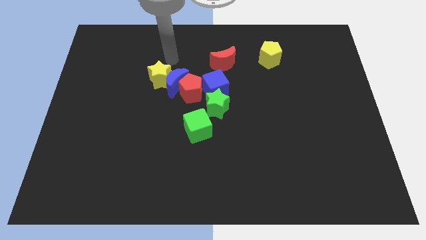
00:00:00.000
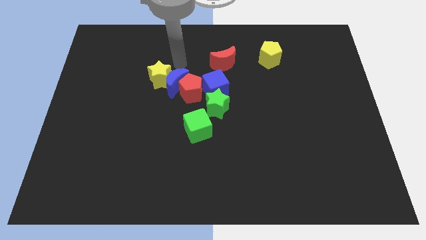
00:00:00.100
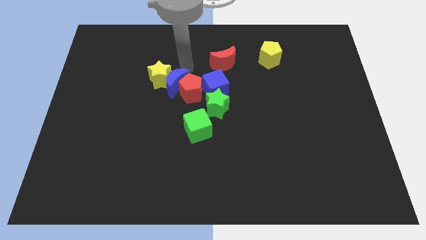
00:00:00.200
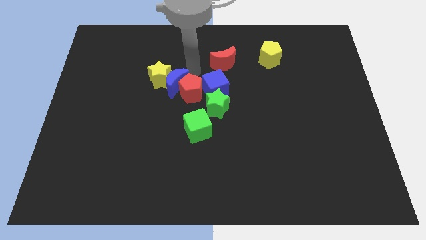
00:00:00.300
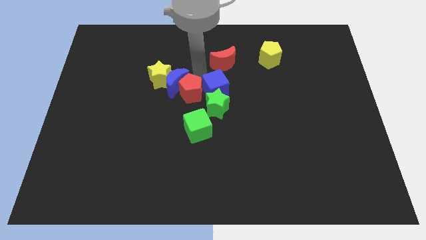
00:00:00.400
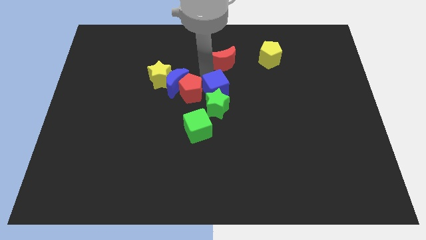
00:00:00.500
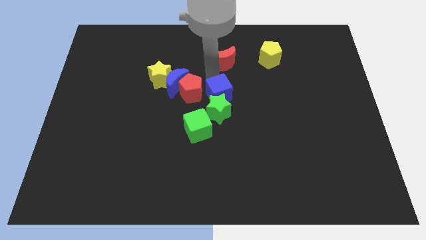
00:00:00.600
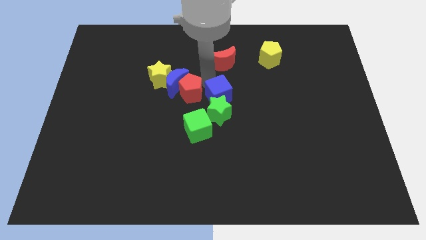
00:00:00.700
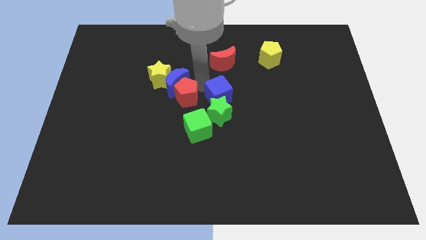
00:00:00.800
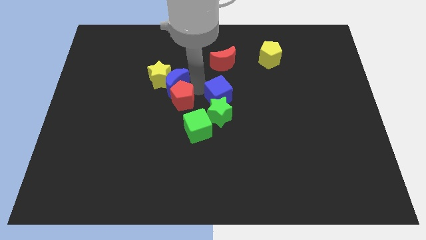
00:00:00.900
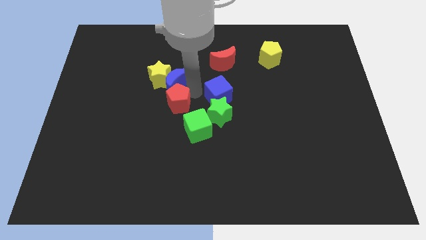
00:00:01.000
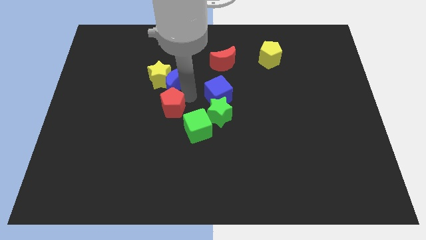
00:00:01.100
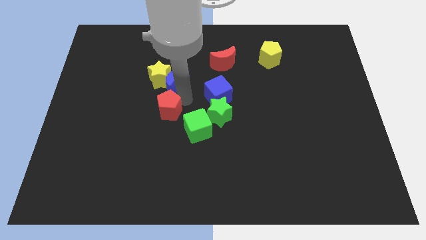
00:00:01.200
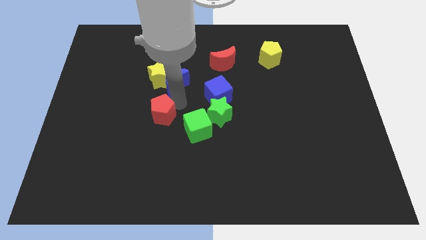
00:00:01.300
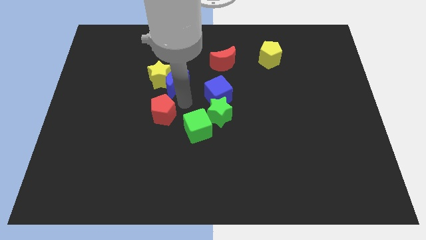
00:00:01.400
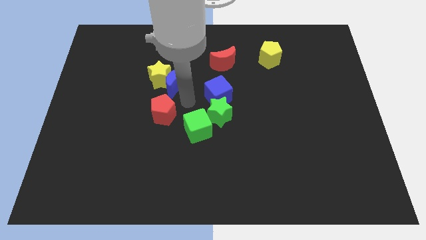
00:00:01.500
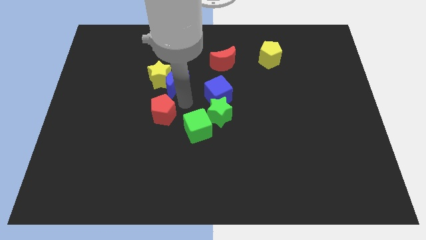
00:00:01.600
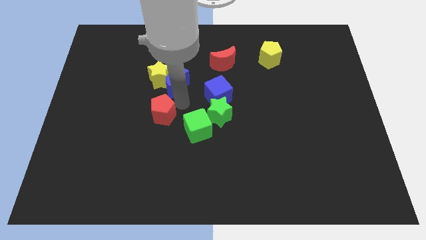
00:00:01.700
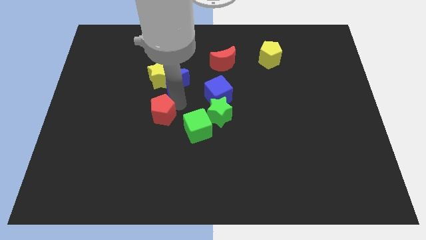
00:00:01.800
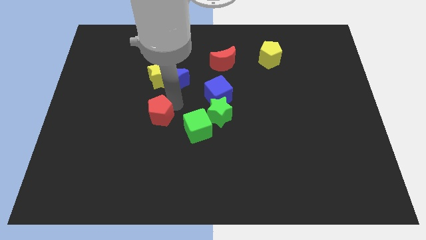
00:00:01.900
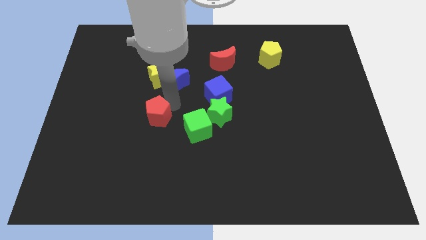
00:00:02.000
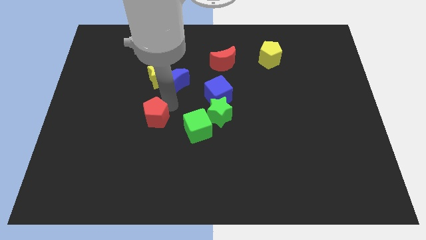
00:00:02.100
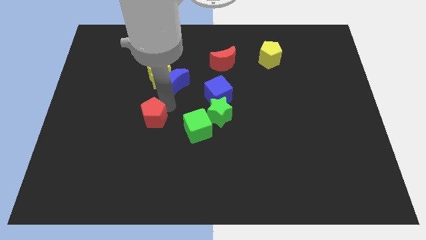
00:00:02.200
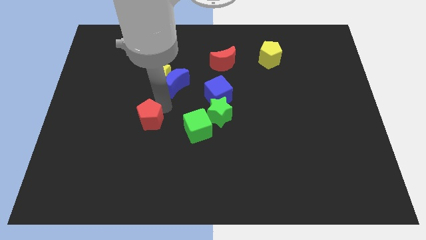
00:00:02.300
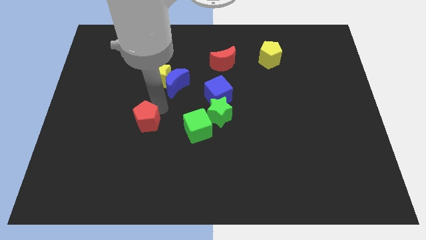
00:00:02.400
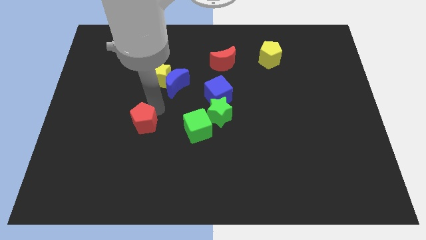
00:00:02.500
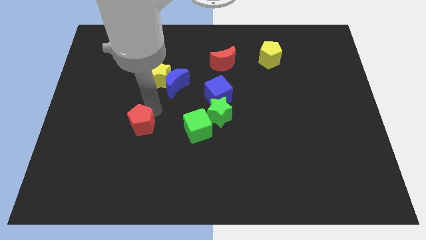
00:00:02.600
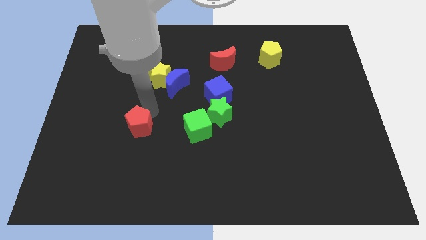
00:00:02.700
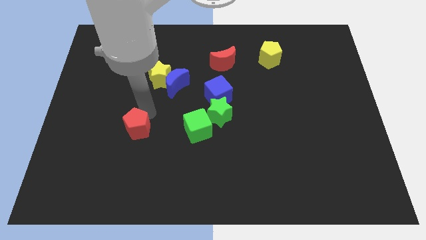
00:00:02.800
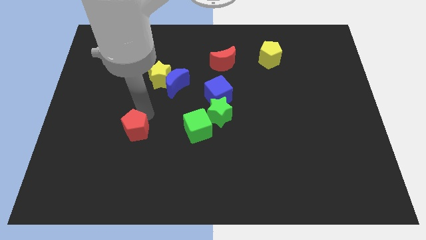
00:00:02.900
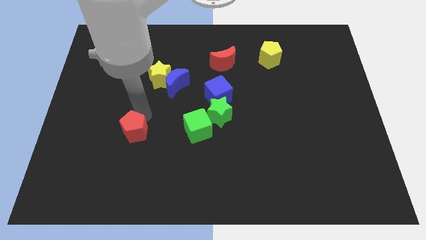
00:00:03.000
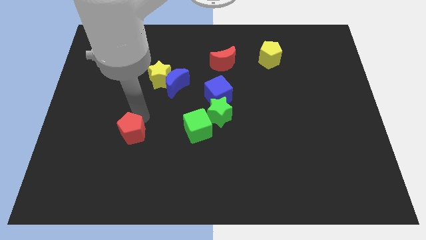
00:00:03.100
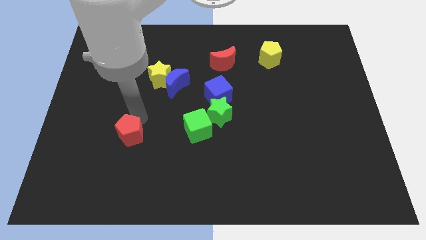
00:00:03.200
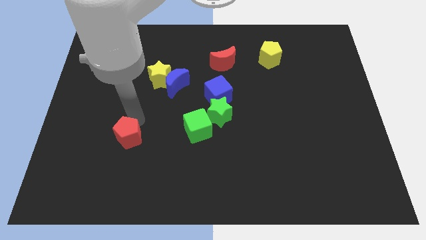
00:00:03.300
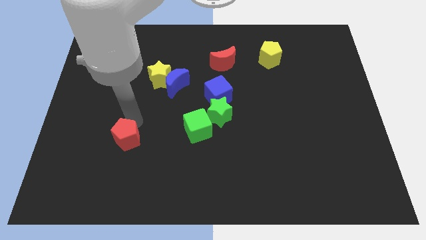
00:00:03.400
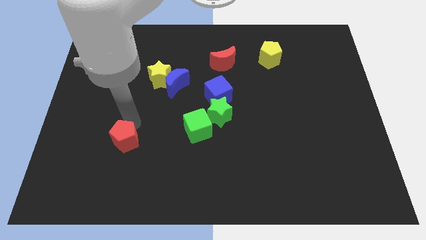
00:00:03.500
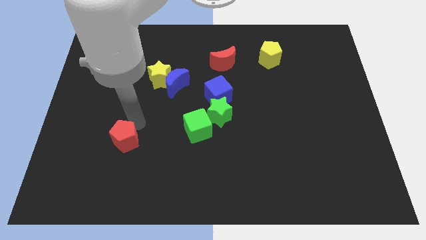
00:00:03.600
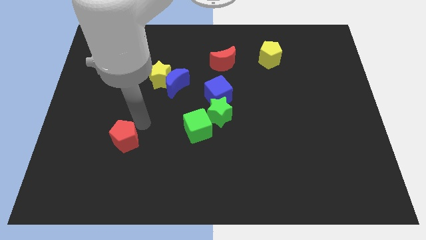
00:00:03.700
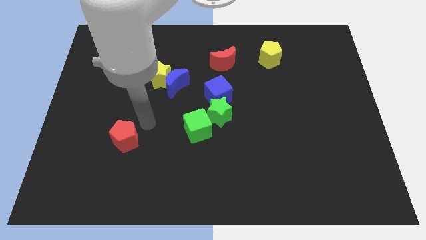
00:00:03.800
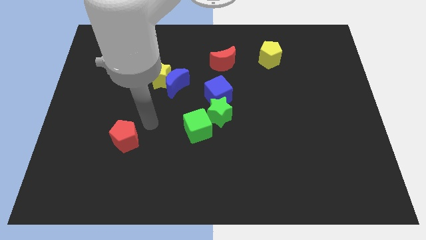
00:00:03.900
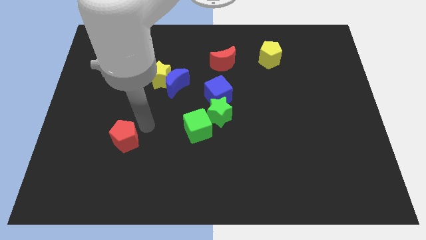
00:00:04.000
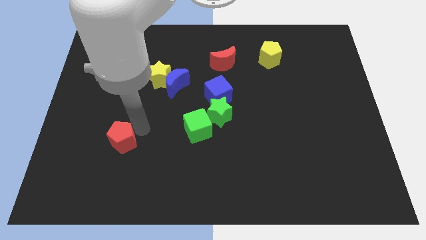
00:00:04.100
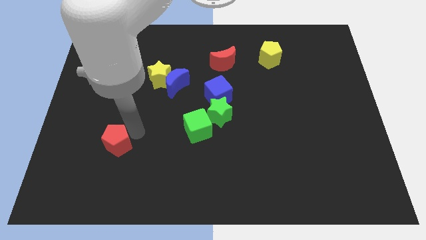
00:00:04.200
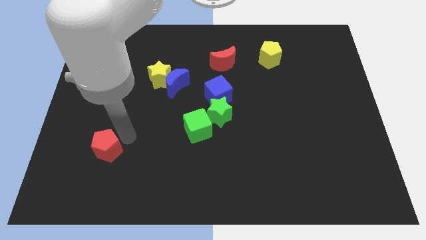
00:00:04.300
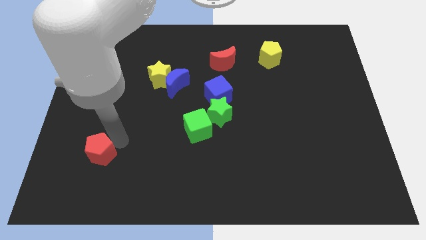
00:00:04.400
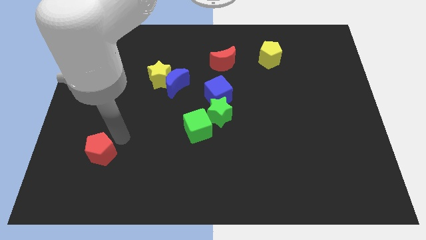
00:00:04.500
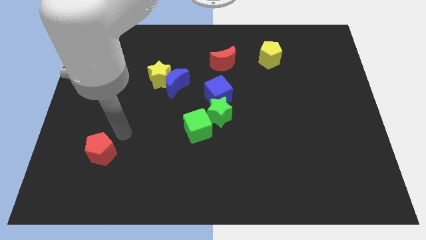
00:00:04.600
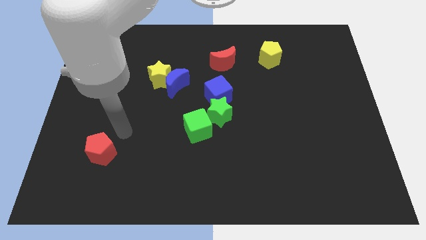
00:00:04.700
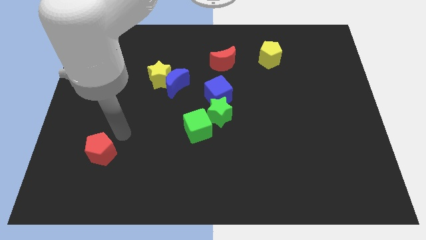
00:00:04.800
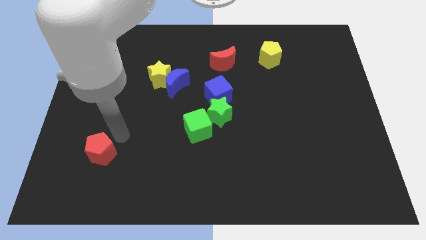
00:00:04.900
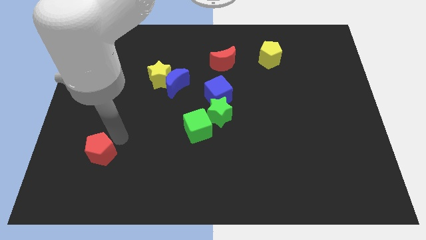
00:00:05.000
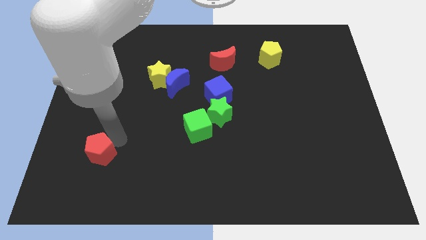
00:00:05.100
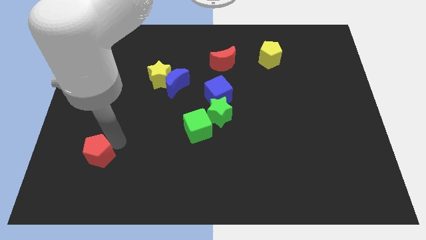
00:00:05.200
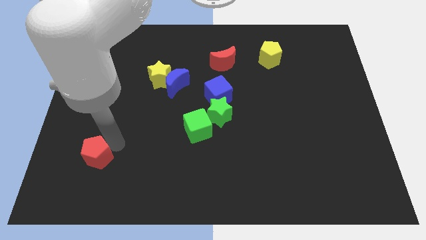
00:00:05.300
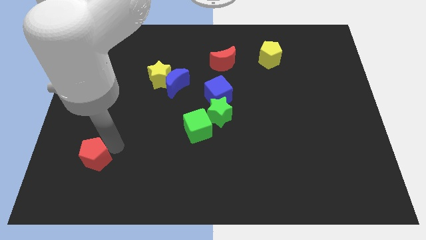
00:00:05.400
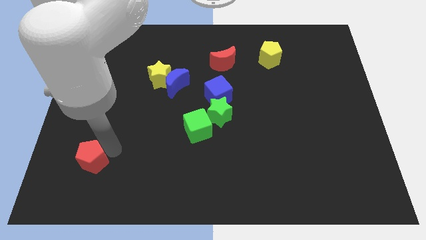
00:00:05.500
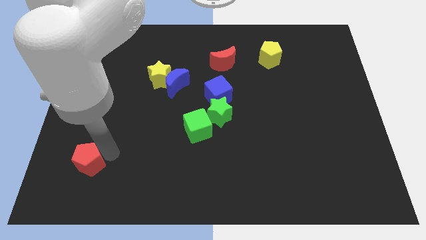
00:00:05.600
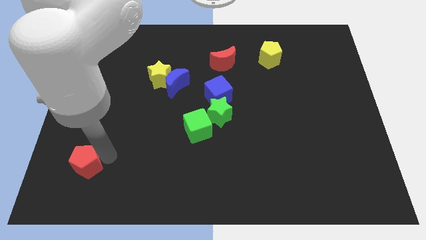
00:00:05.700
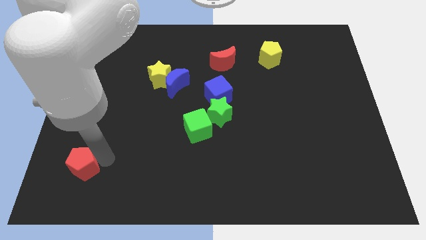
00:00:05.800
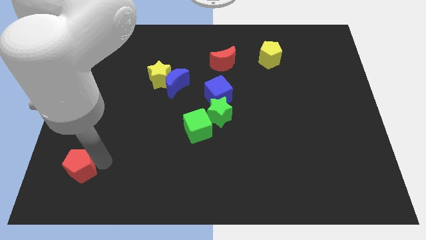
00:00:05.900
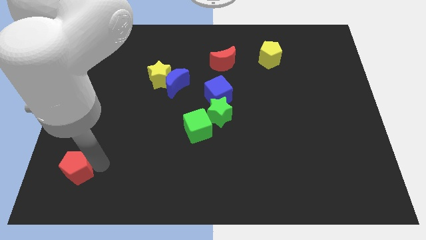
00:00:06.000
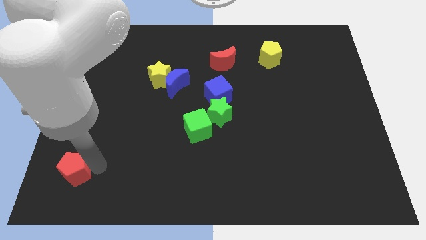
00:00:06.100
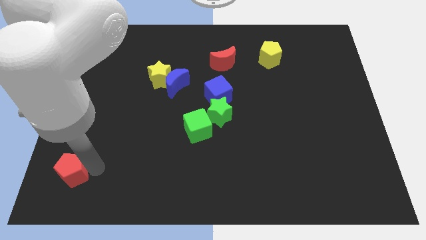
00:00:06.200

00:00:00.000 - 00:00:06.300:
move the red pentagon to the bottom left of the board

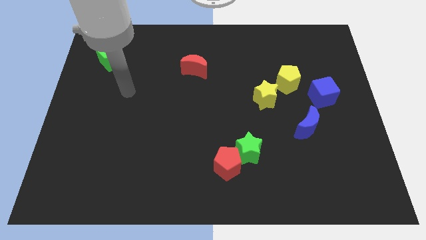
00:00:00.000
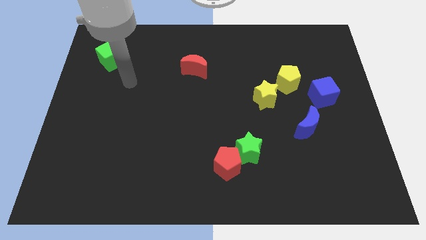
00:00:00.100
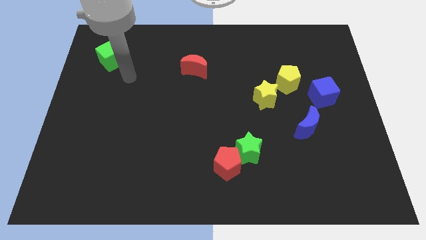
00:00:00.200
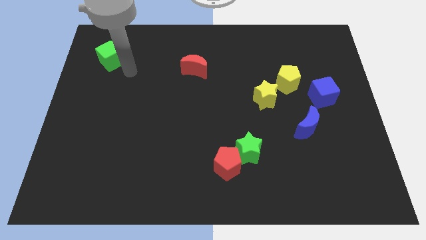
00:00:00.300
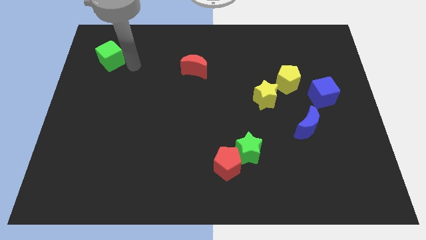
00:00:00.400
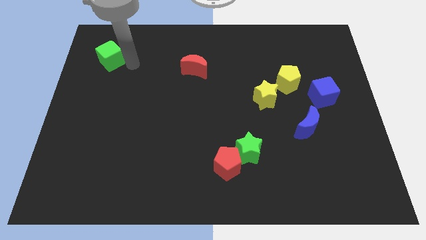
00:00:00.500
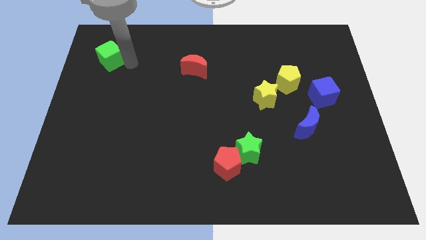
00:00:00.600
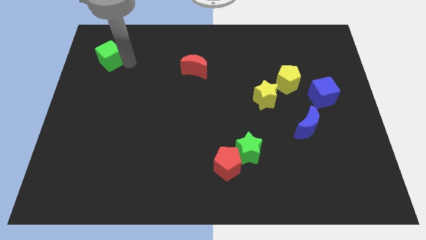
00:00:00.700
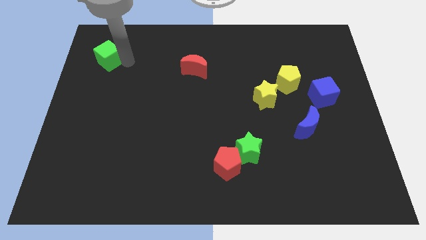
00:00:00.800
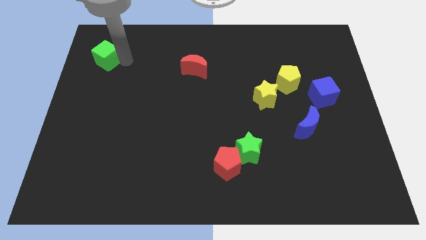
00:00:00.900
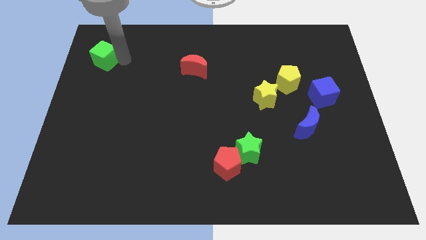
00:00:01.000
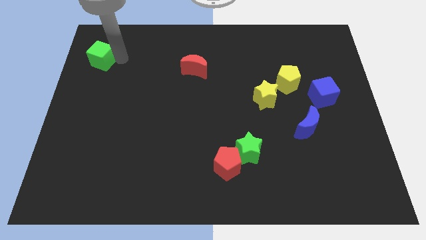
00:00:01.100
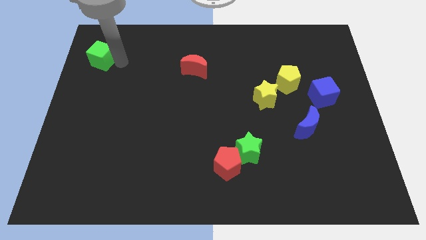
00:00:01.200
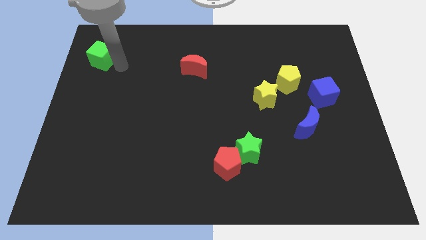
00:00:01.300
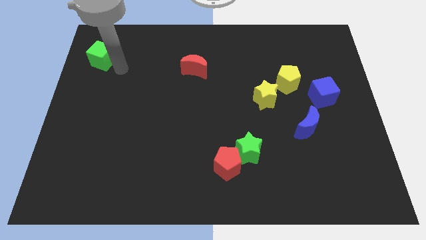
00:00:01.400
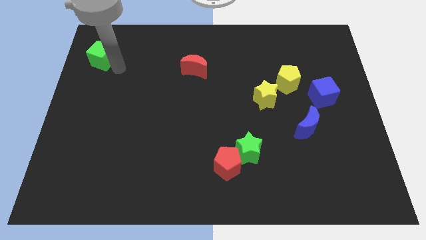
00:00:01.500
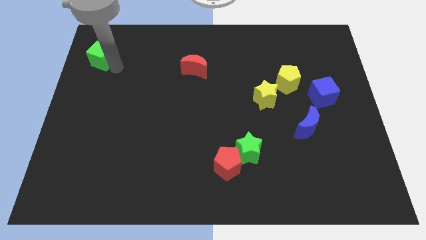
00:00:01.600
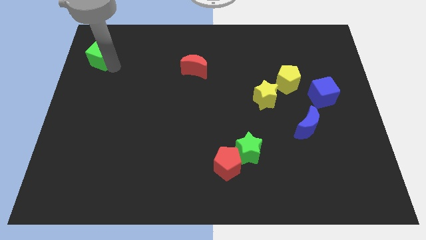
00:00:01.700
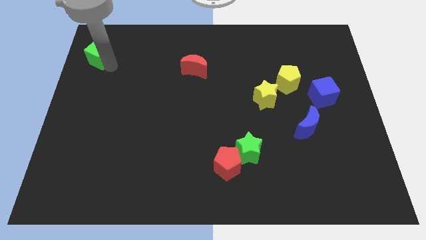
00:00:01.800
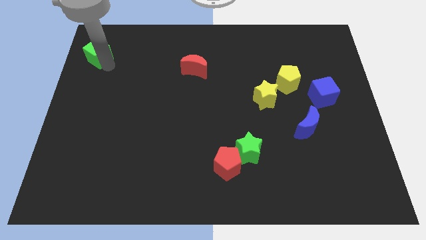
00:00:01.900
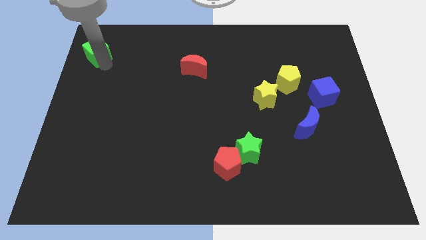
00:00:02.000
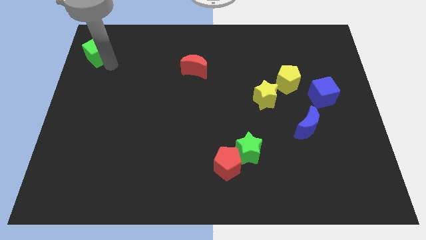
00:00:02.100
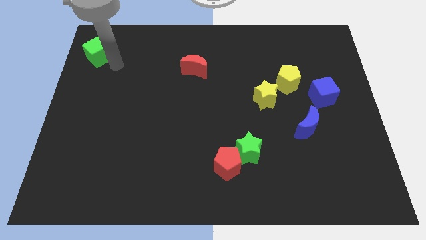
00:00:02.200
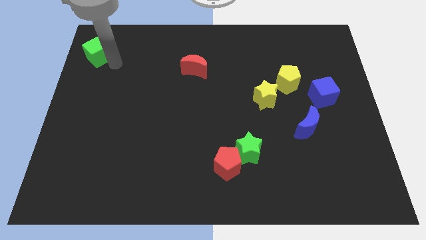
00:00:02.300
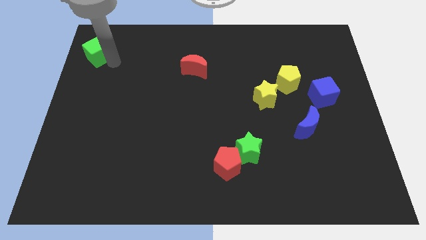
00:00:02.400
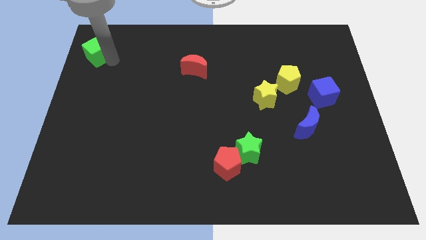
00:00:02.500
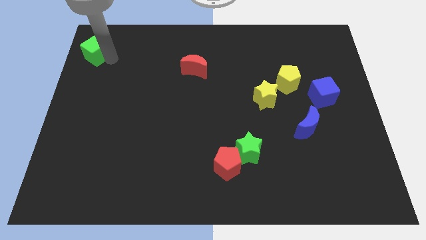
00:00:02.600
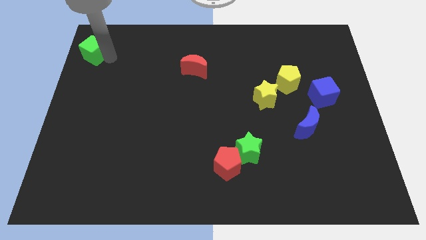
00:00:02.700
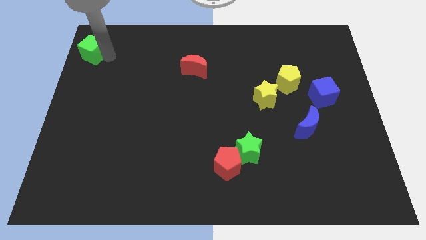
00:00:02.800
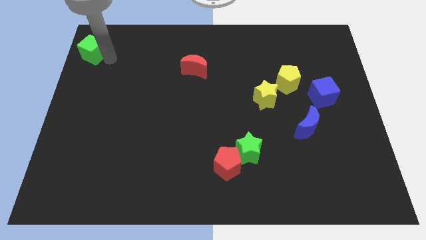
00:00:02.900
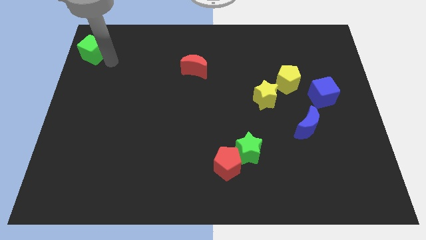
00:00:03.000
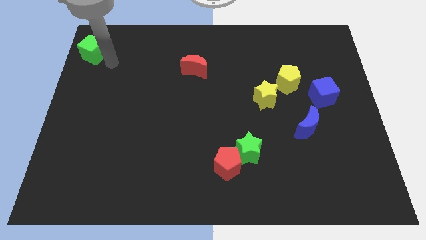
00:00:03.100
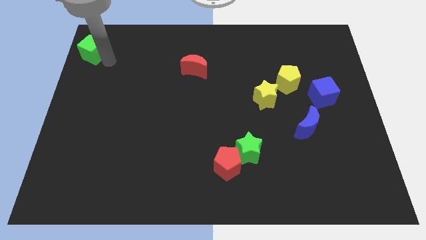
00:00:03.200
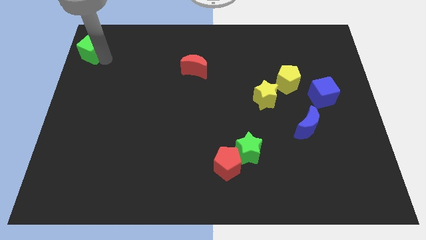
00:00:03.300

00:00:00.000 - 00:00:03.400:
move the green cube to the top left of the board
